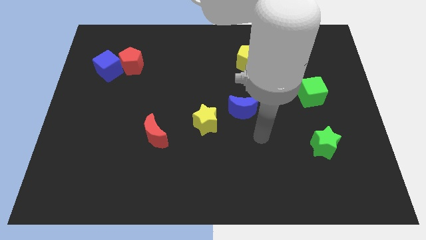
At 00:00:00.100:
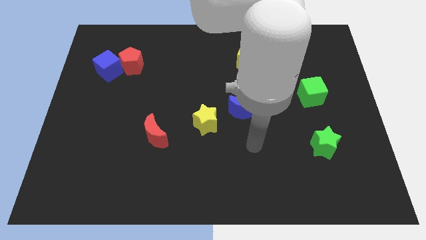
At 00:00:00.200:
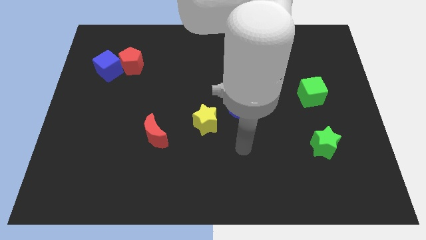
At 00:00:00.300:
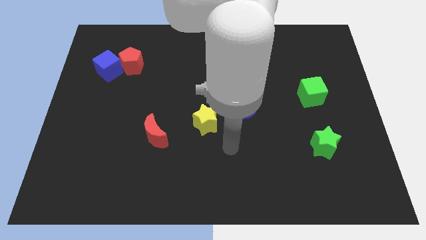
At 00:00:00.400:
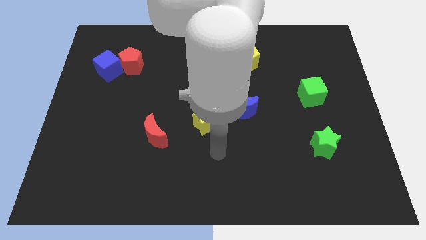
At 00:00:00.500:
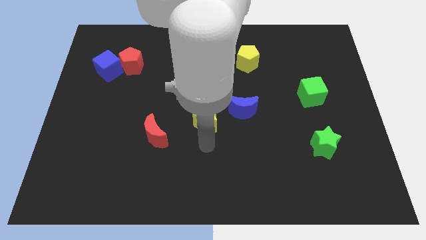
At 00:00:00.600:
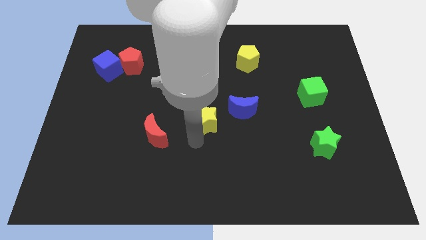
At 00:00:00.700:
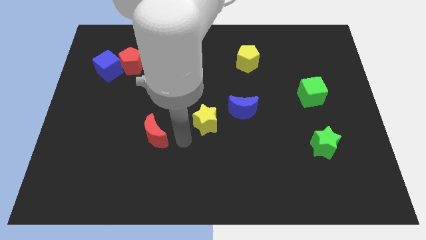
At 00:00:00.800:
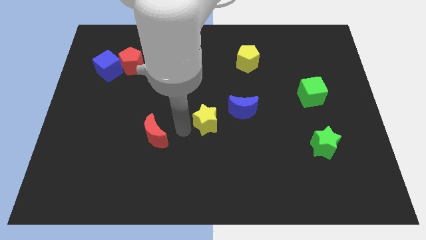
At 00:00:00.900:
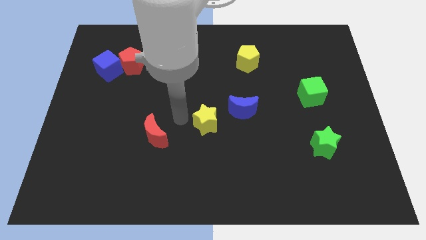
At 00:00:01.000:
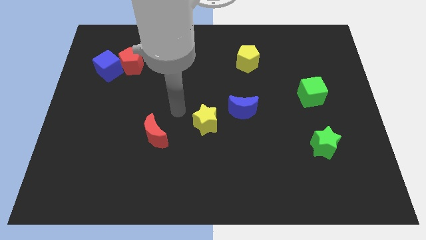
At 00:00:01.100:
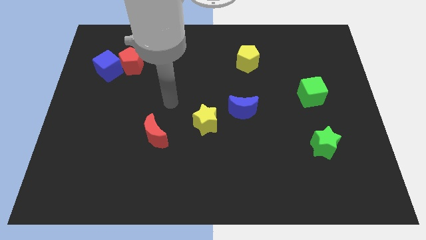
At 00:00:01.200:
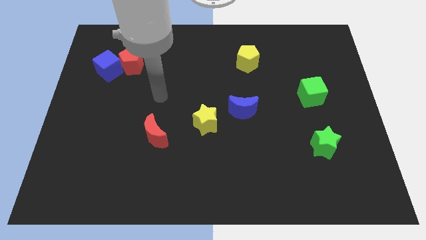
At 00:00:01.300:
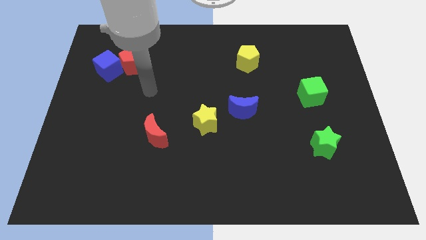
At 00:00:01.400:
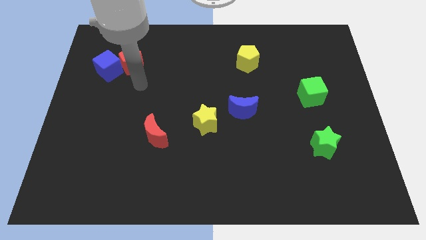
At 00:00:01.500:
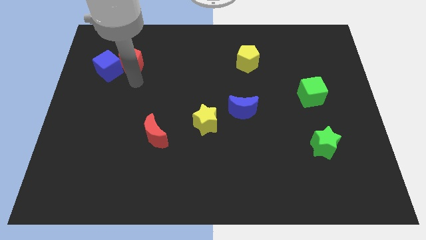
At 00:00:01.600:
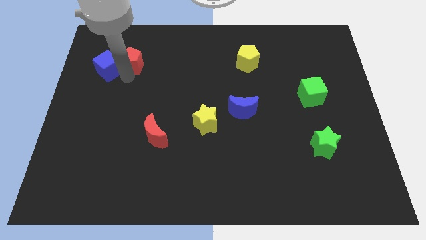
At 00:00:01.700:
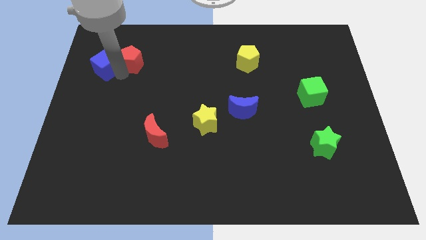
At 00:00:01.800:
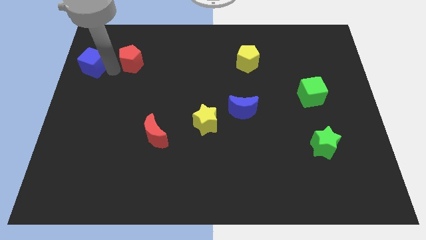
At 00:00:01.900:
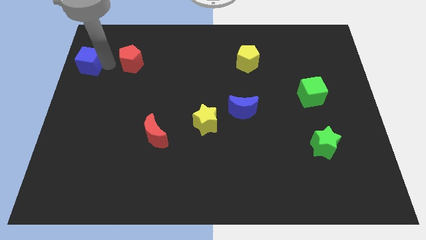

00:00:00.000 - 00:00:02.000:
pull the red pentagon apart from the blue cube

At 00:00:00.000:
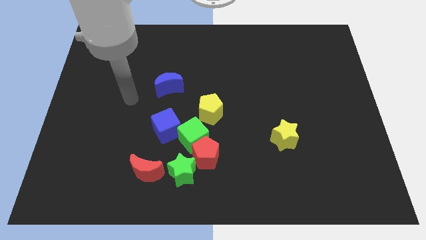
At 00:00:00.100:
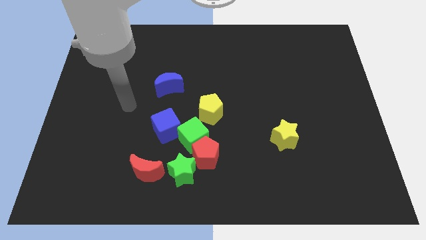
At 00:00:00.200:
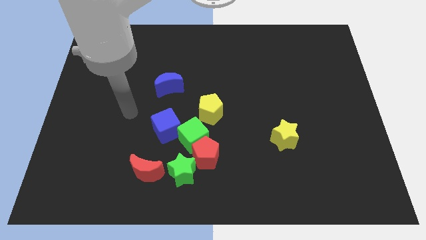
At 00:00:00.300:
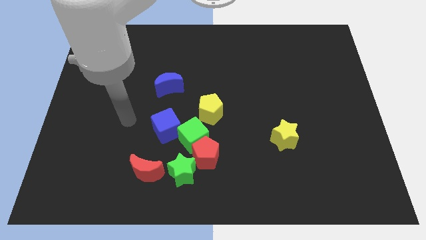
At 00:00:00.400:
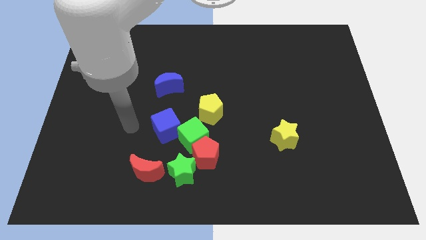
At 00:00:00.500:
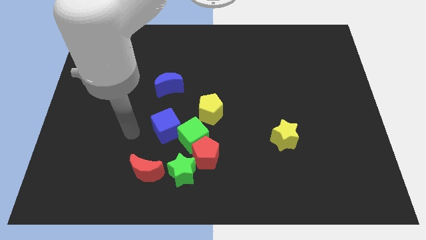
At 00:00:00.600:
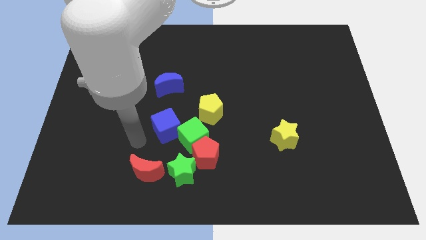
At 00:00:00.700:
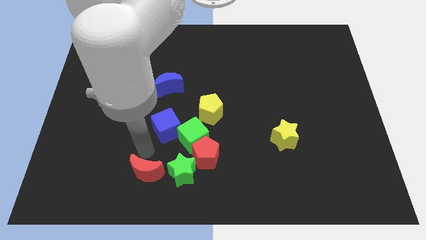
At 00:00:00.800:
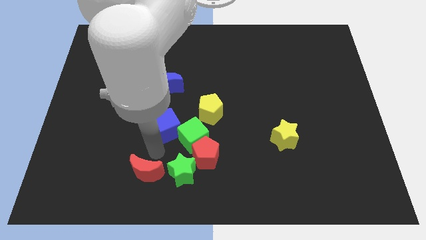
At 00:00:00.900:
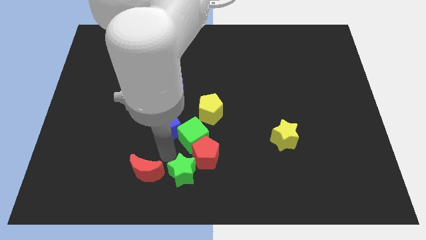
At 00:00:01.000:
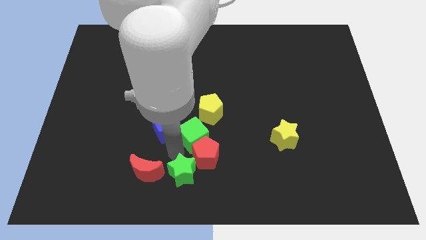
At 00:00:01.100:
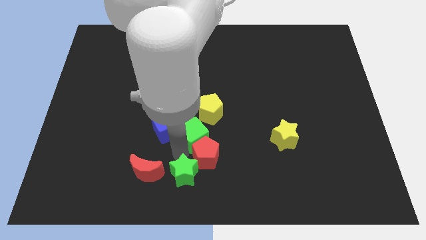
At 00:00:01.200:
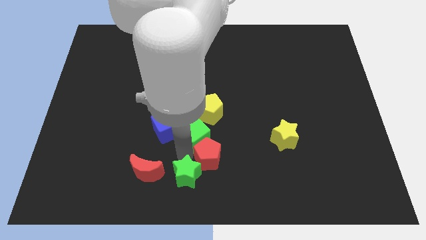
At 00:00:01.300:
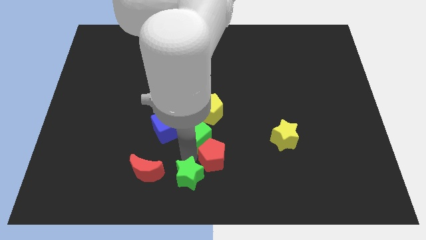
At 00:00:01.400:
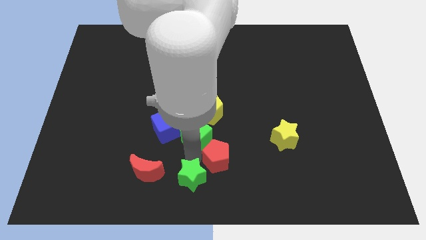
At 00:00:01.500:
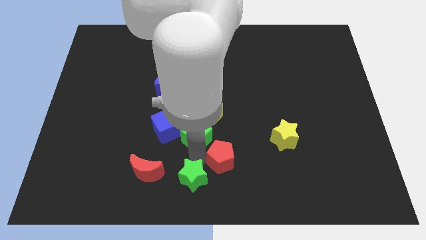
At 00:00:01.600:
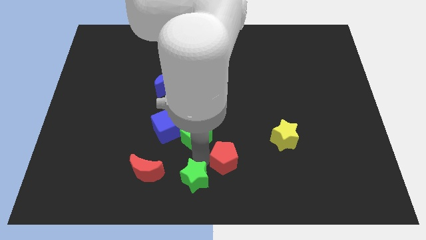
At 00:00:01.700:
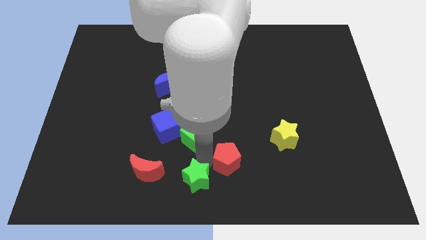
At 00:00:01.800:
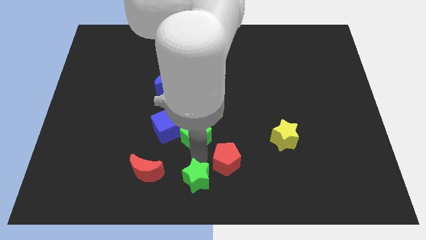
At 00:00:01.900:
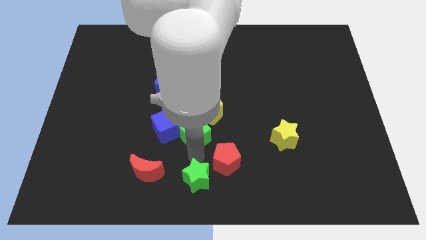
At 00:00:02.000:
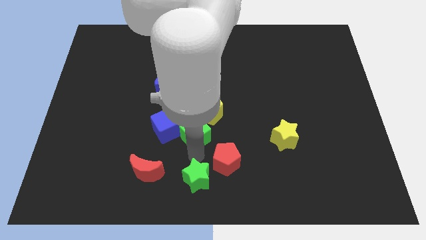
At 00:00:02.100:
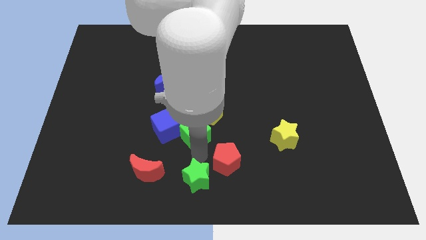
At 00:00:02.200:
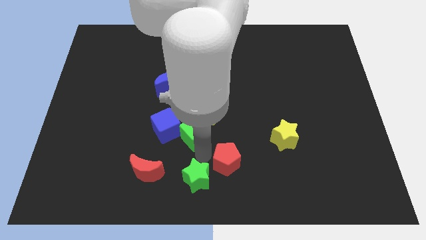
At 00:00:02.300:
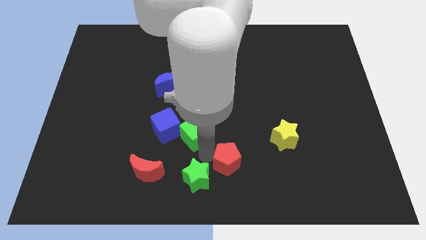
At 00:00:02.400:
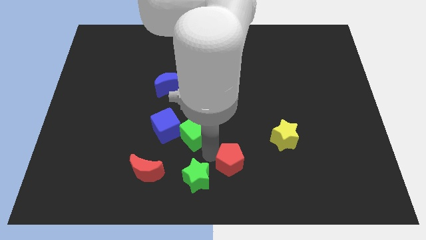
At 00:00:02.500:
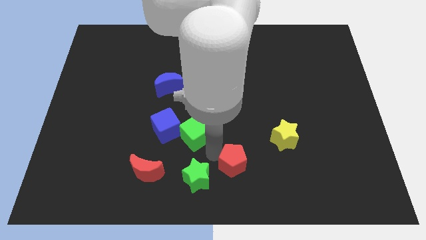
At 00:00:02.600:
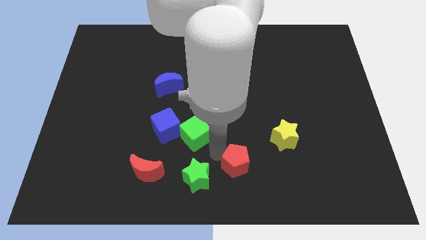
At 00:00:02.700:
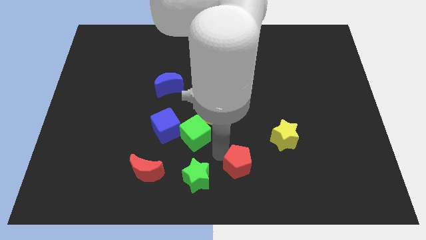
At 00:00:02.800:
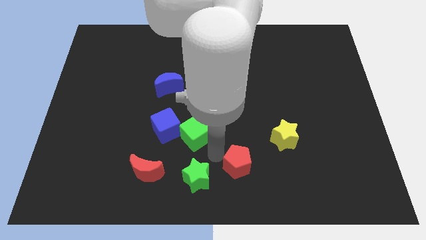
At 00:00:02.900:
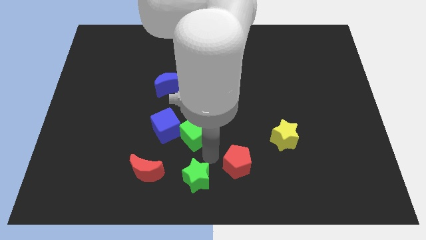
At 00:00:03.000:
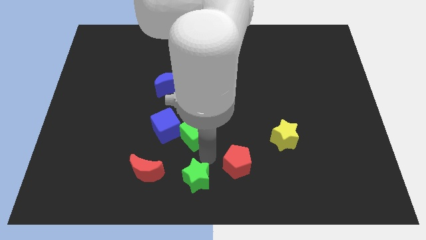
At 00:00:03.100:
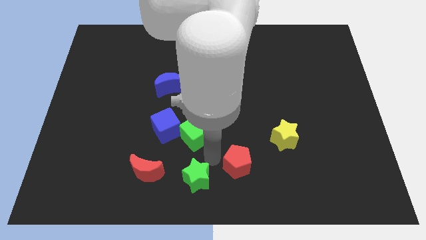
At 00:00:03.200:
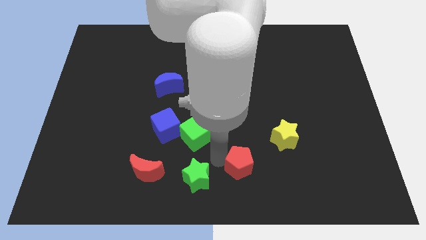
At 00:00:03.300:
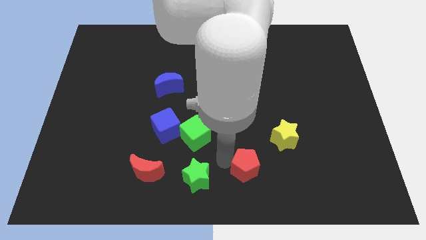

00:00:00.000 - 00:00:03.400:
move the red pentagon away from the green cube and green star

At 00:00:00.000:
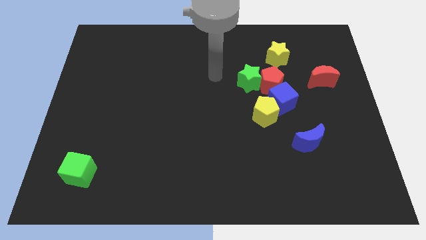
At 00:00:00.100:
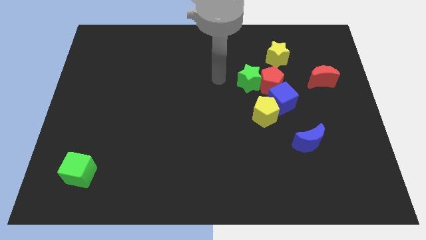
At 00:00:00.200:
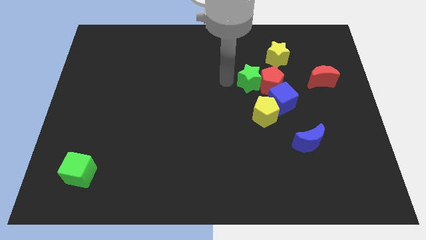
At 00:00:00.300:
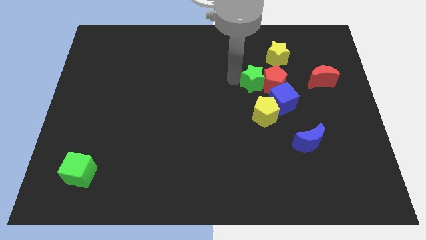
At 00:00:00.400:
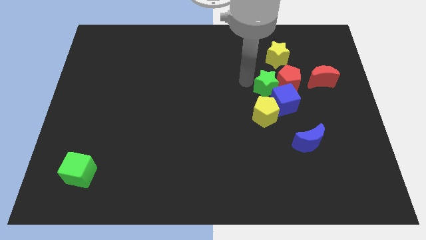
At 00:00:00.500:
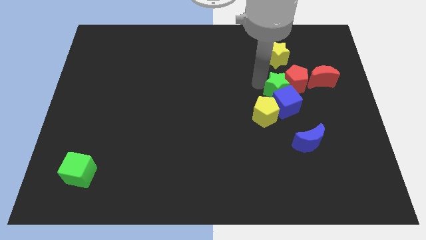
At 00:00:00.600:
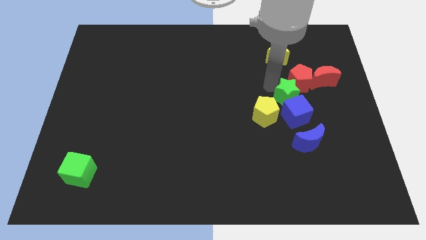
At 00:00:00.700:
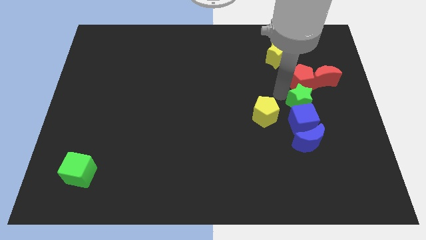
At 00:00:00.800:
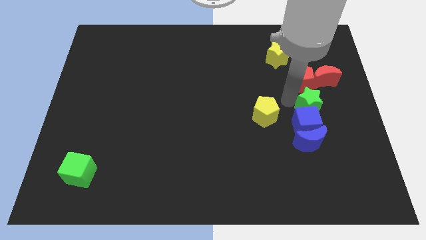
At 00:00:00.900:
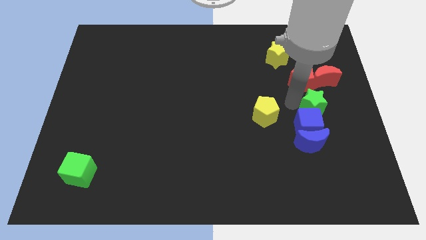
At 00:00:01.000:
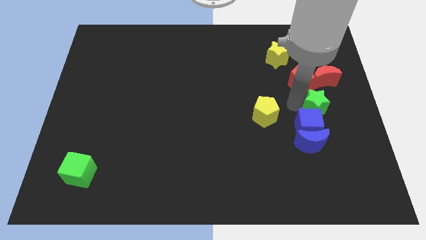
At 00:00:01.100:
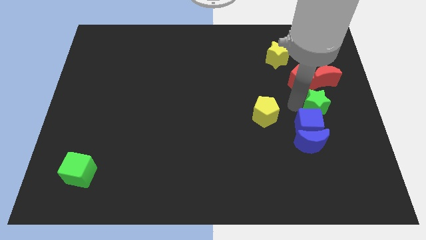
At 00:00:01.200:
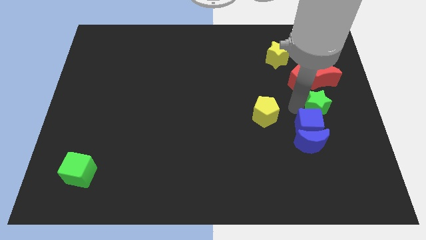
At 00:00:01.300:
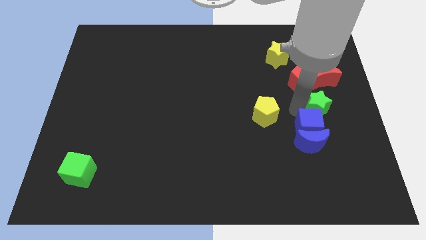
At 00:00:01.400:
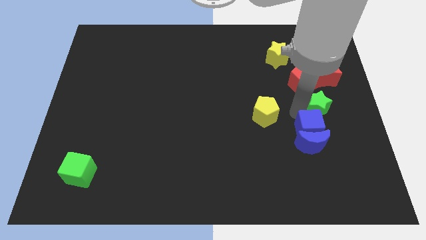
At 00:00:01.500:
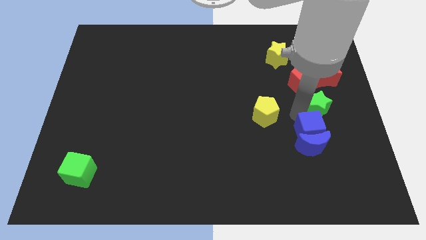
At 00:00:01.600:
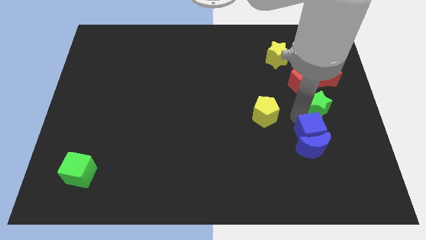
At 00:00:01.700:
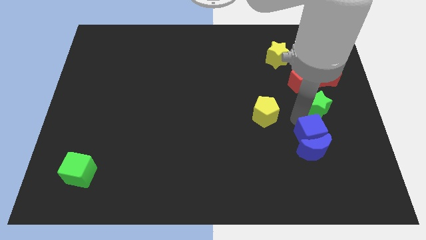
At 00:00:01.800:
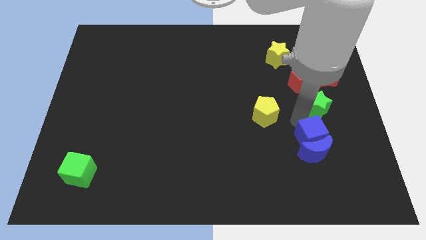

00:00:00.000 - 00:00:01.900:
move the blue cube away from the group

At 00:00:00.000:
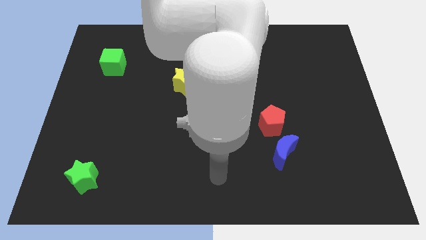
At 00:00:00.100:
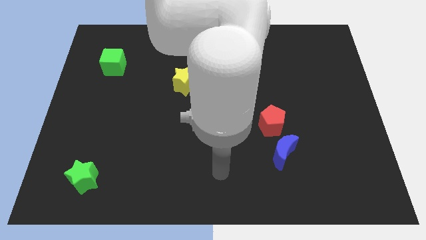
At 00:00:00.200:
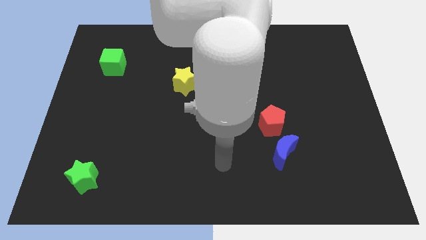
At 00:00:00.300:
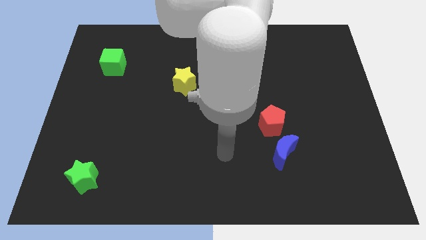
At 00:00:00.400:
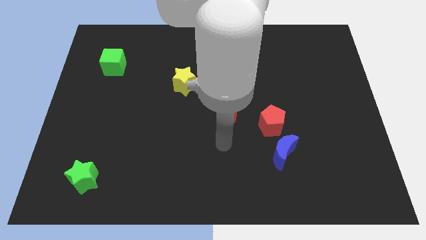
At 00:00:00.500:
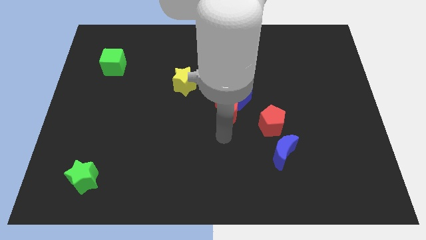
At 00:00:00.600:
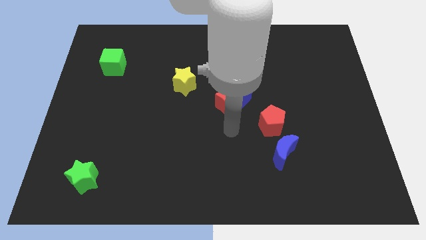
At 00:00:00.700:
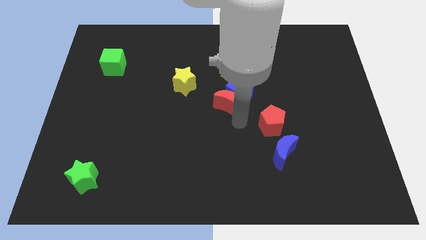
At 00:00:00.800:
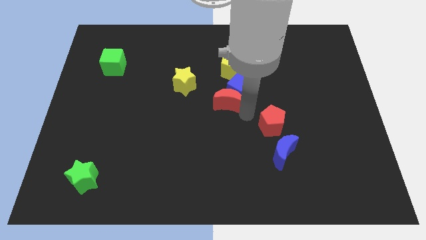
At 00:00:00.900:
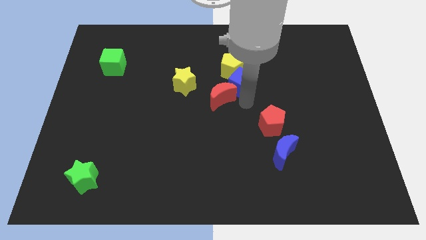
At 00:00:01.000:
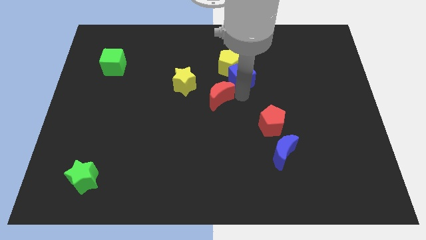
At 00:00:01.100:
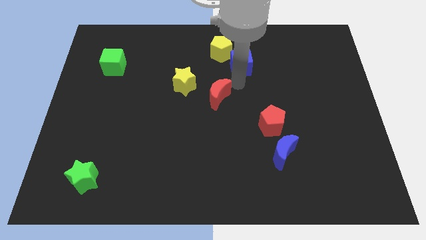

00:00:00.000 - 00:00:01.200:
move the red moon away from the blue cube

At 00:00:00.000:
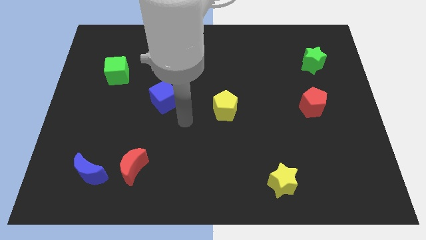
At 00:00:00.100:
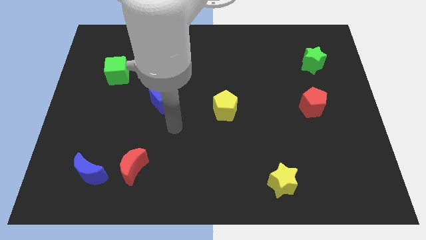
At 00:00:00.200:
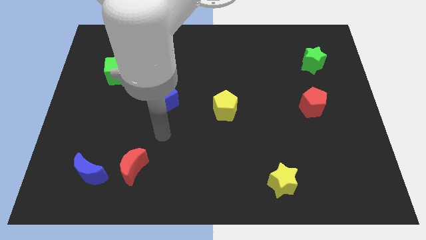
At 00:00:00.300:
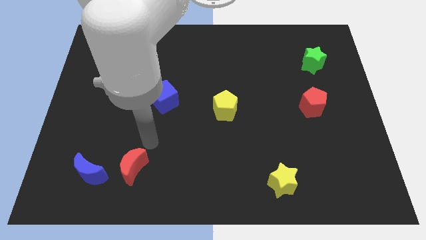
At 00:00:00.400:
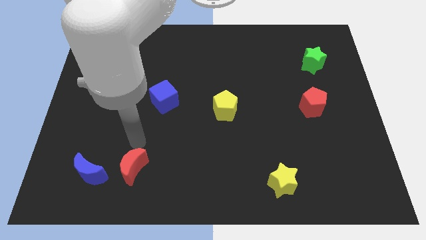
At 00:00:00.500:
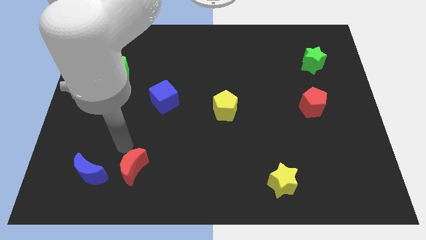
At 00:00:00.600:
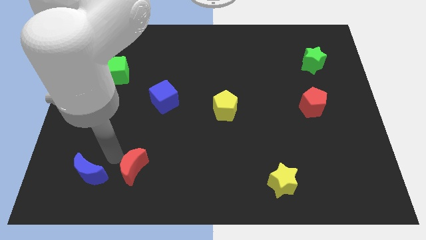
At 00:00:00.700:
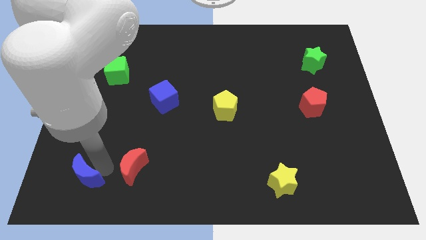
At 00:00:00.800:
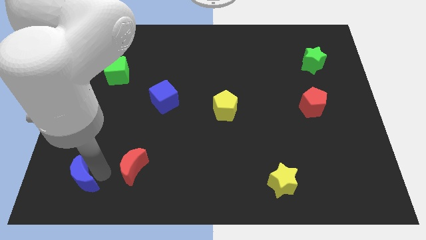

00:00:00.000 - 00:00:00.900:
move the red moon away from the blue moon

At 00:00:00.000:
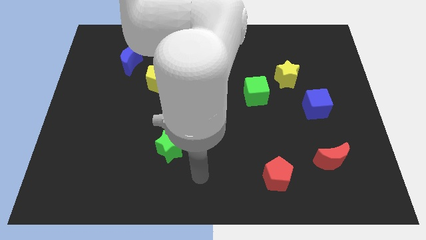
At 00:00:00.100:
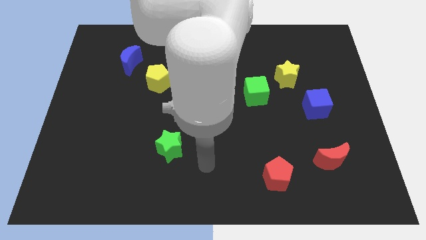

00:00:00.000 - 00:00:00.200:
separate the green cube from the yellow star
